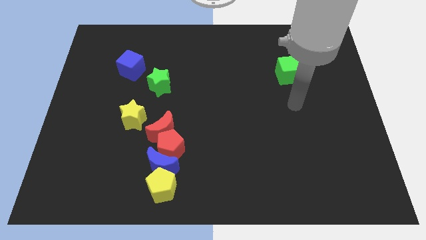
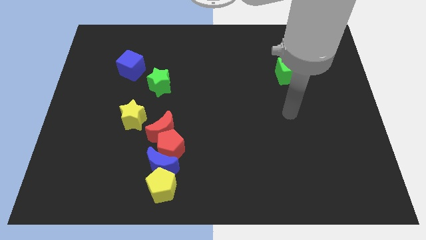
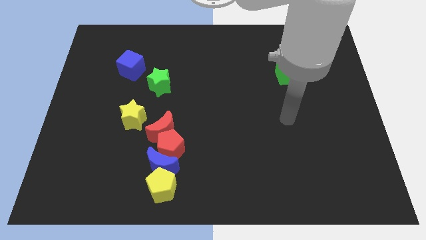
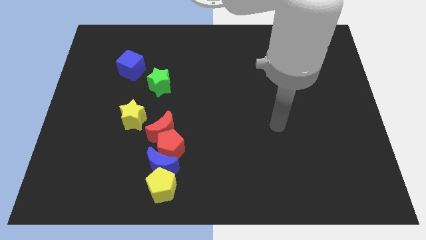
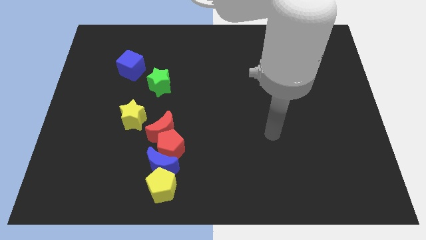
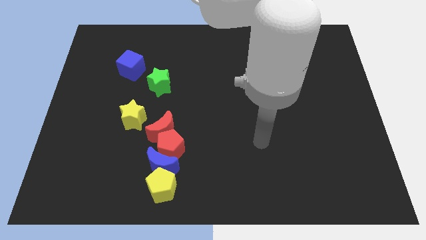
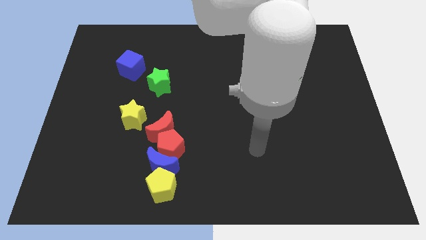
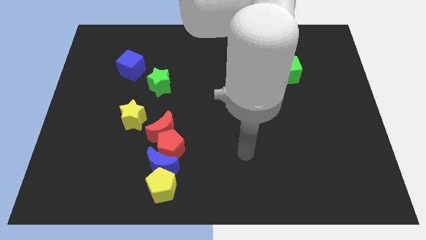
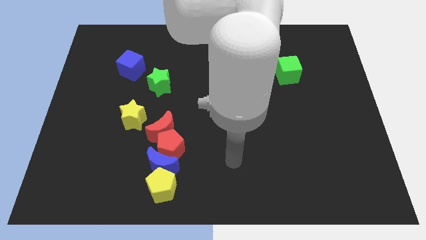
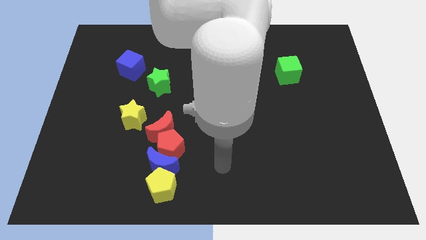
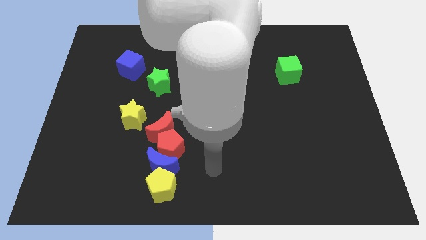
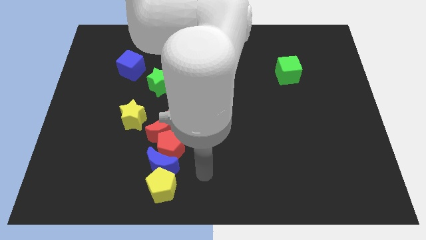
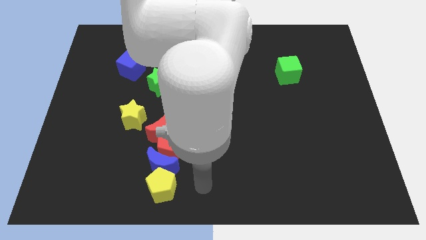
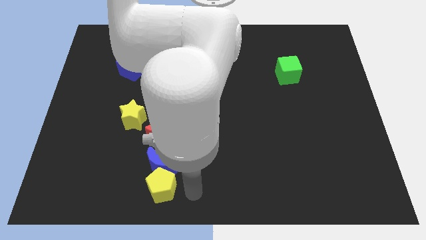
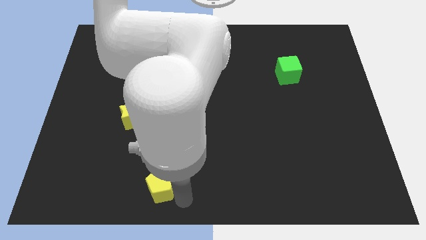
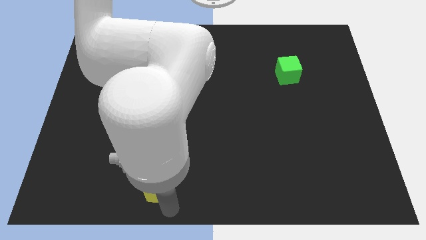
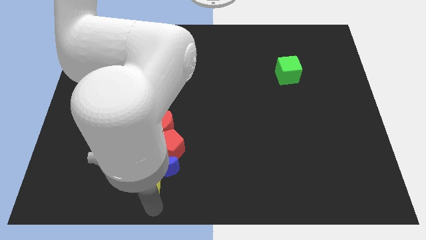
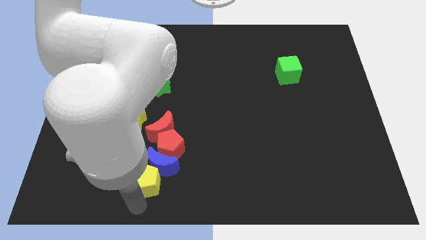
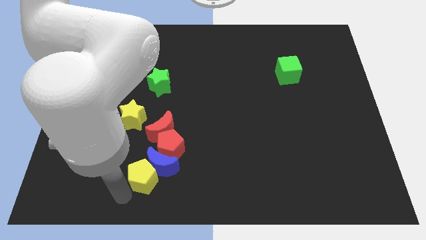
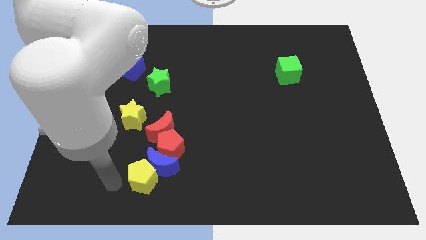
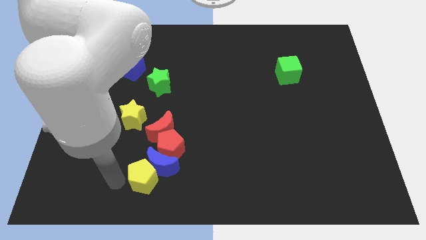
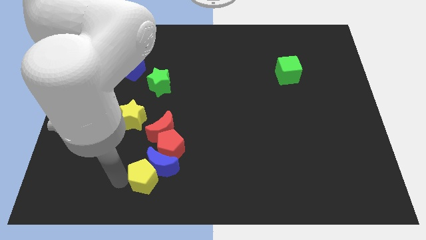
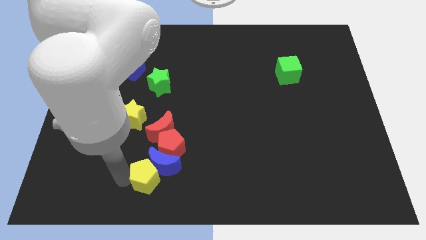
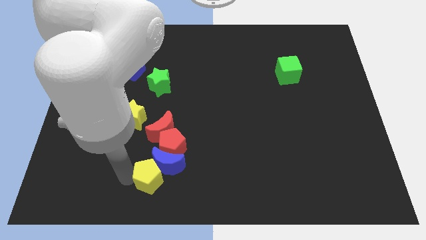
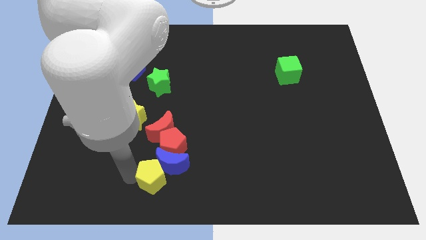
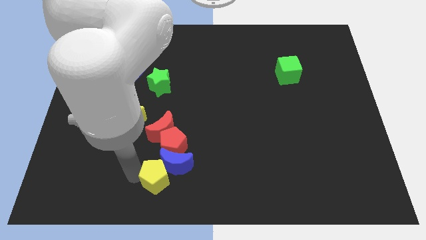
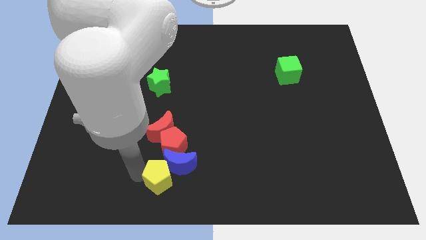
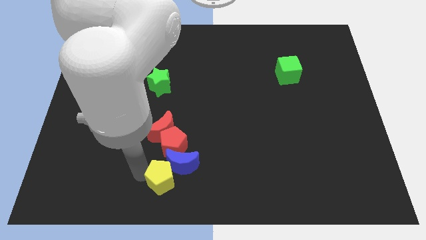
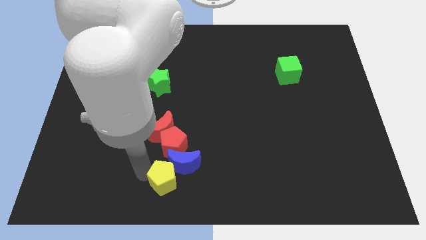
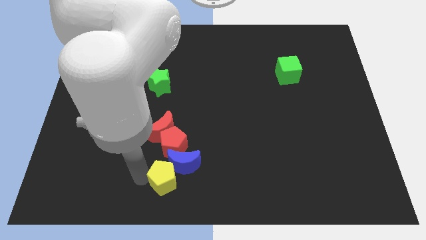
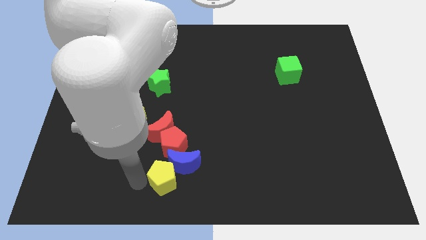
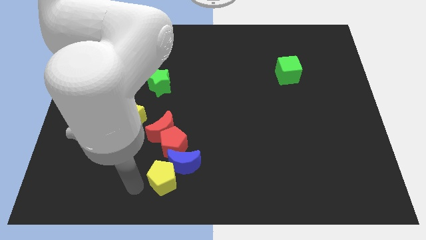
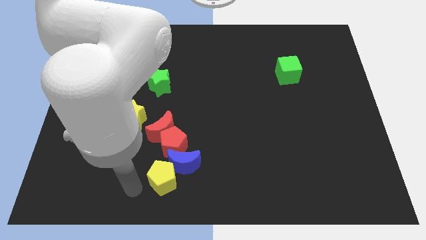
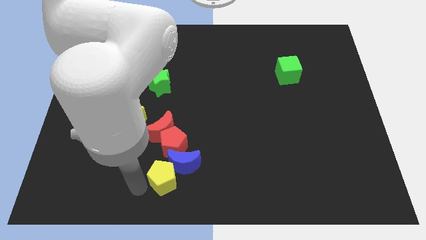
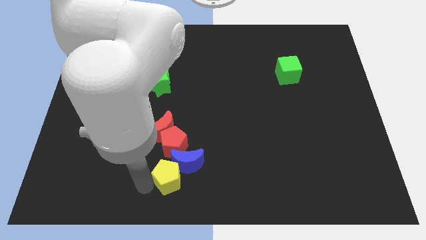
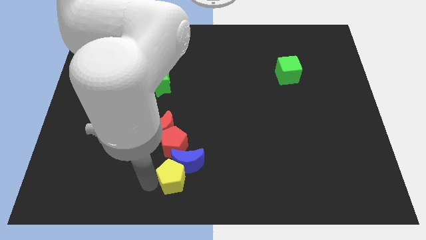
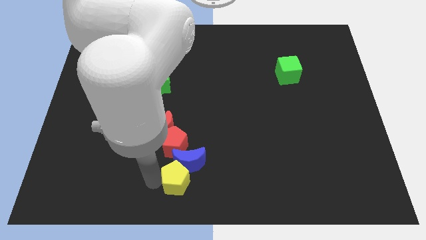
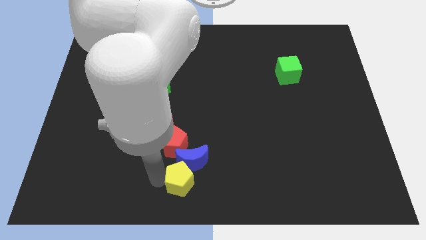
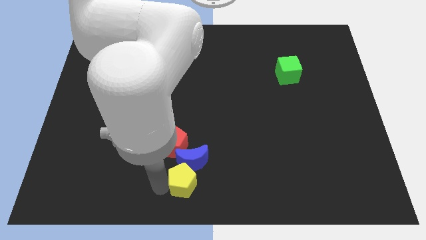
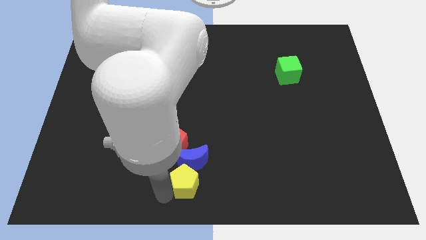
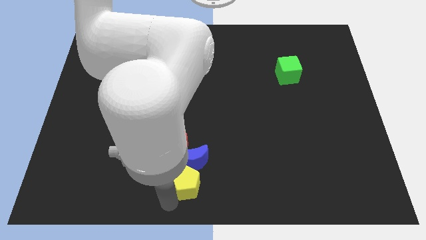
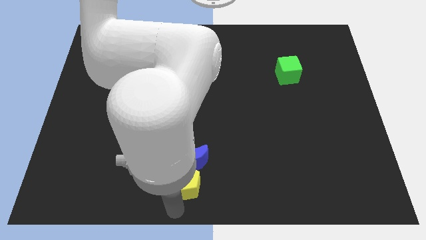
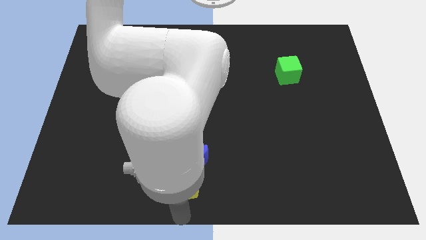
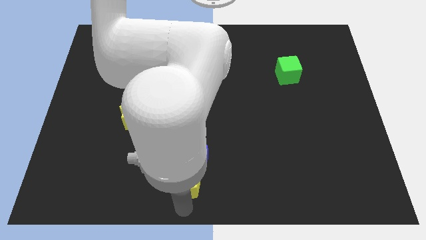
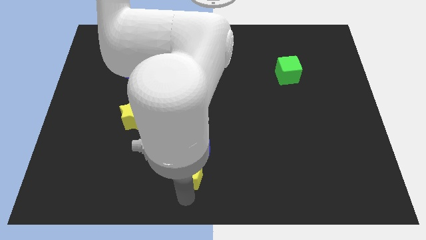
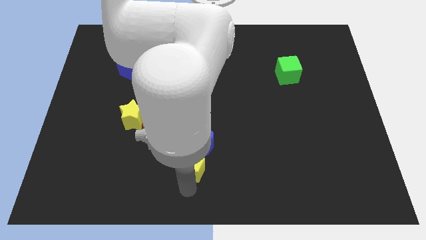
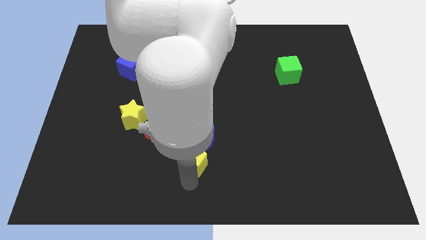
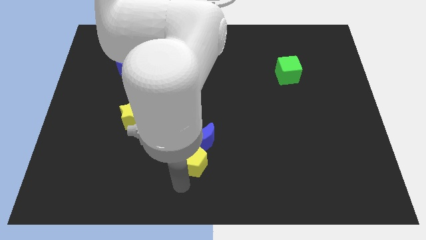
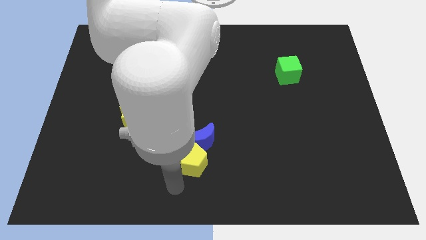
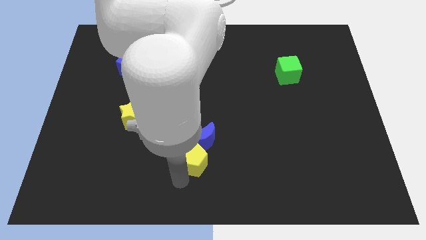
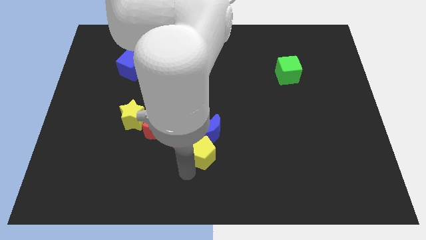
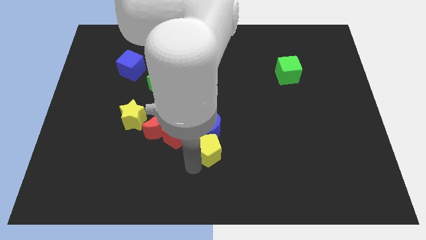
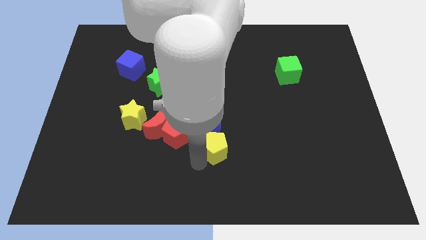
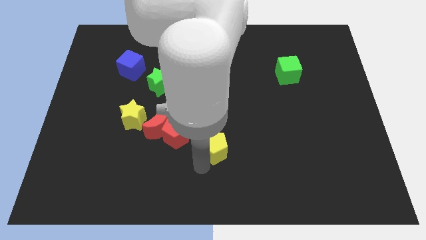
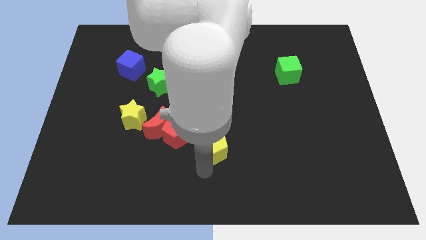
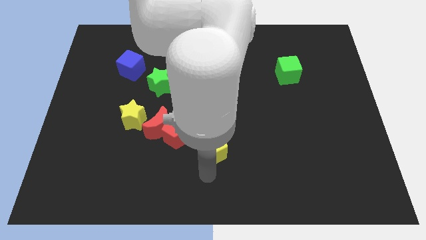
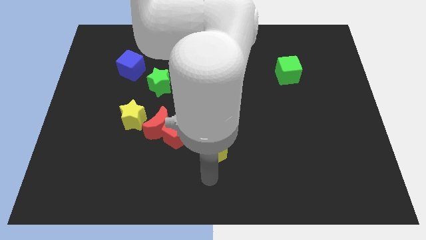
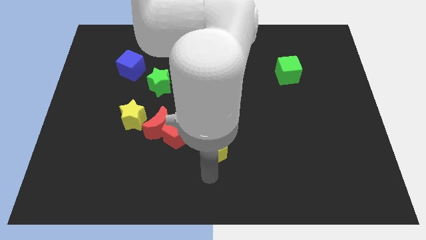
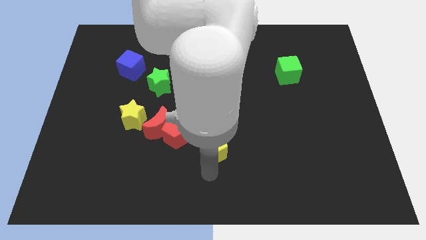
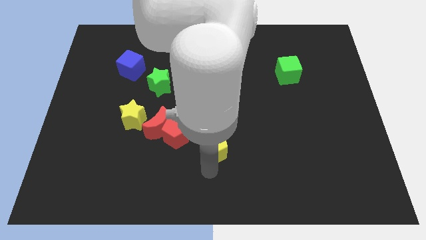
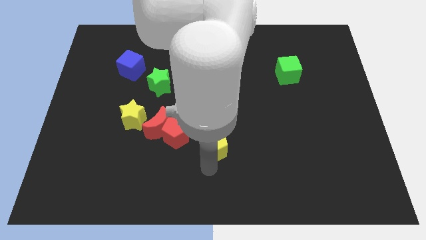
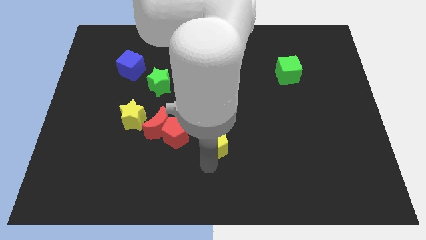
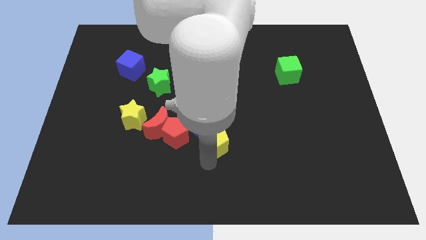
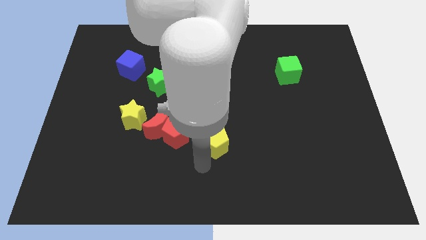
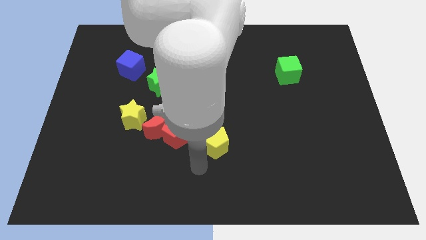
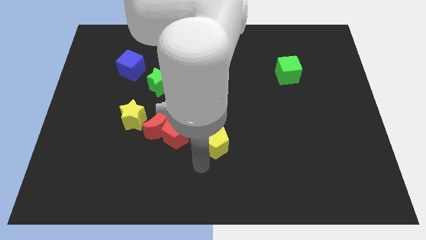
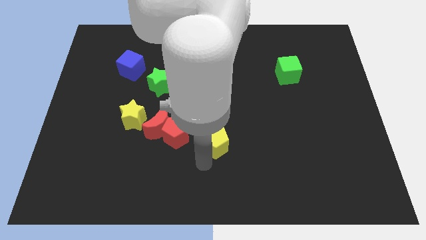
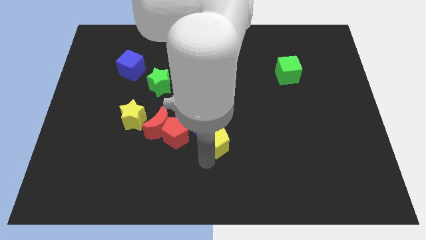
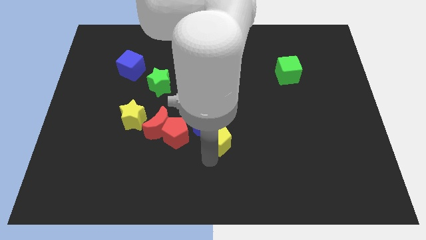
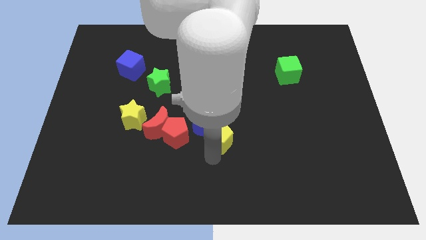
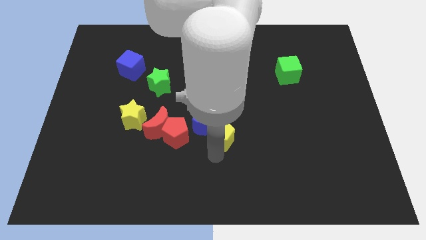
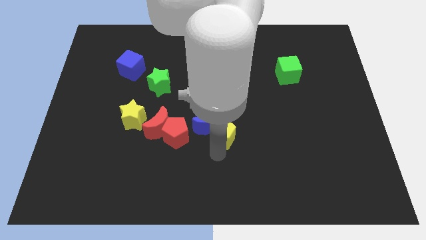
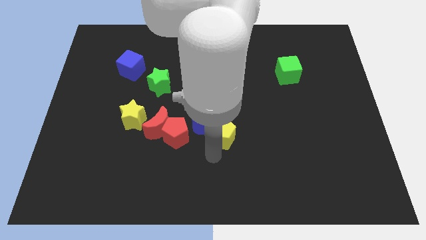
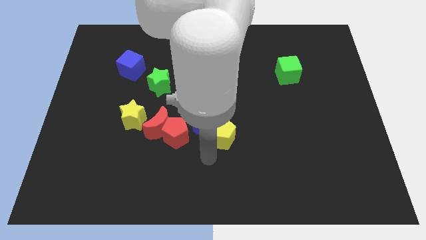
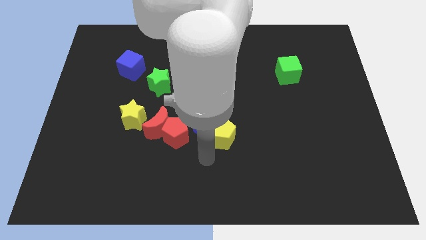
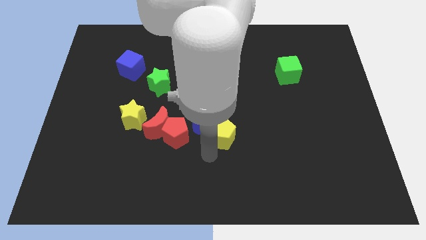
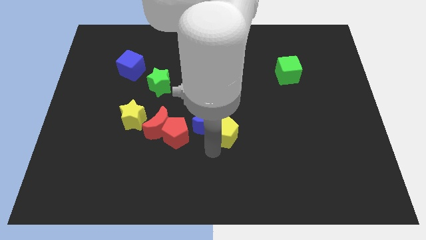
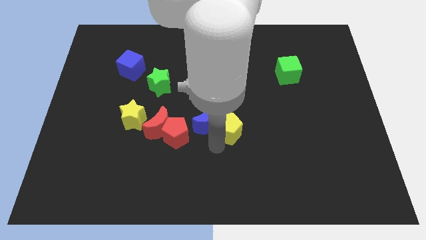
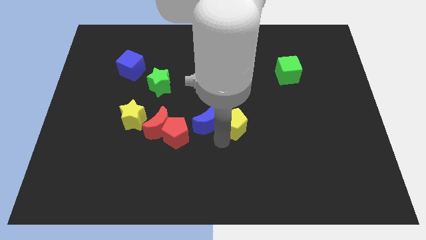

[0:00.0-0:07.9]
move the yellow pentagon diagonally up and right

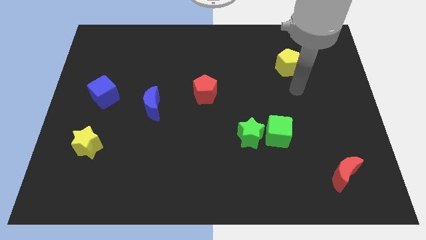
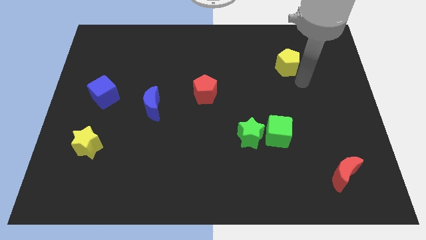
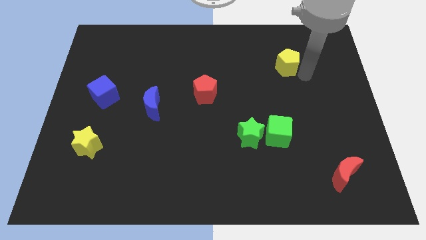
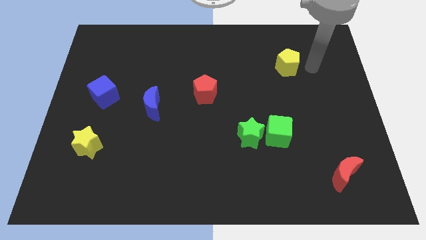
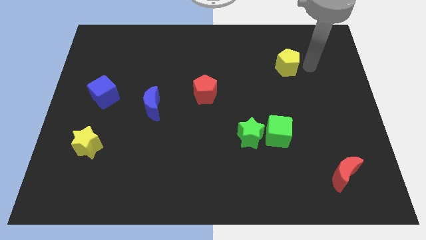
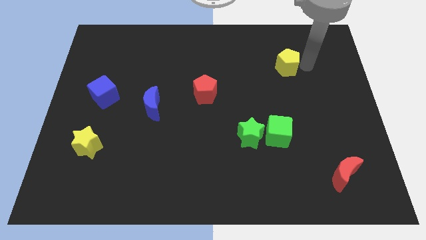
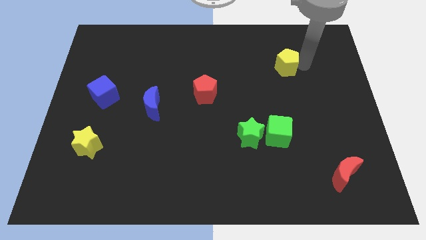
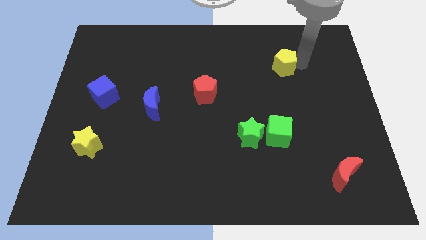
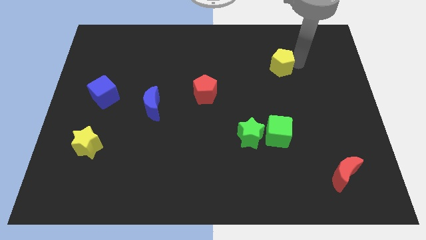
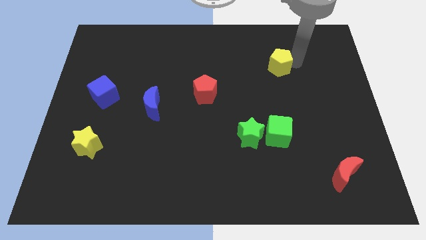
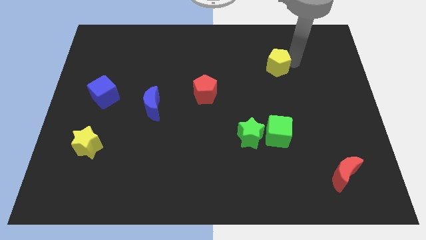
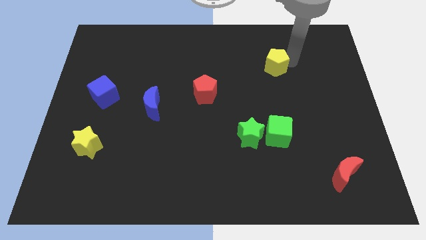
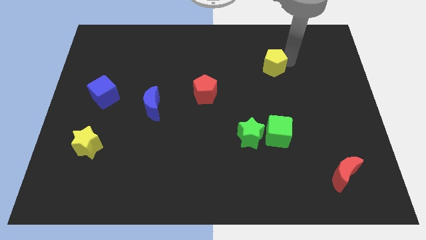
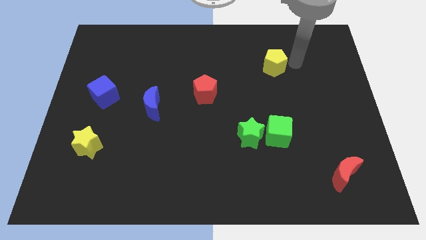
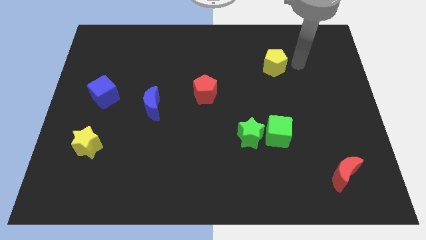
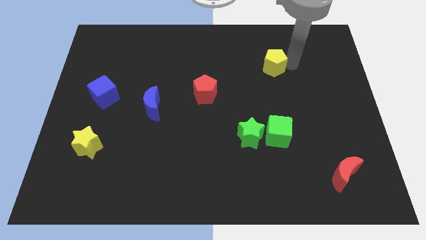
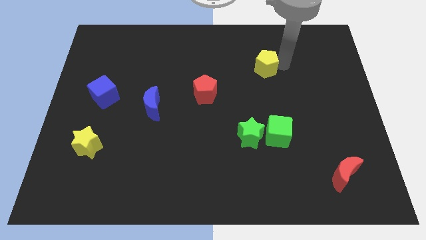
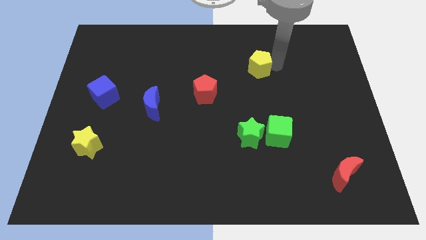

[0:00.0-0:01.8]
move the yellow pentagon somewhat to the left
